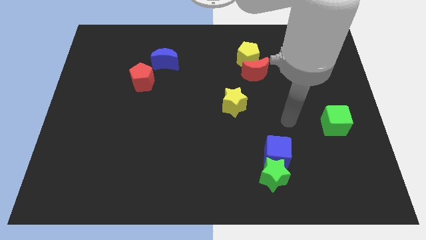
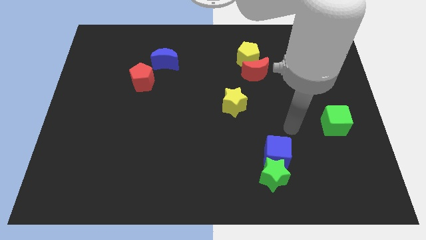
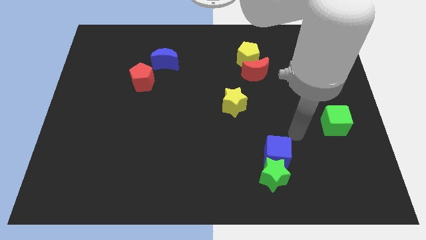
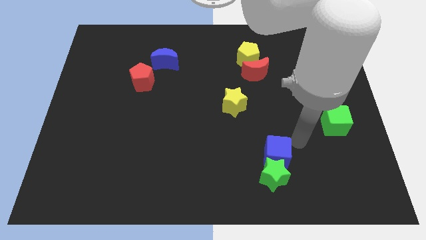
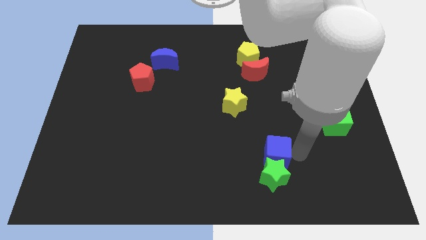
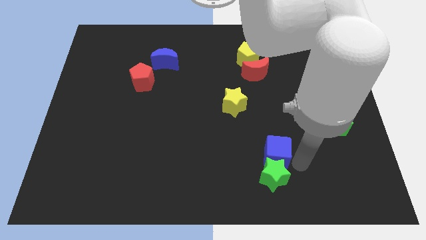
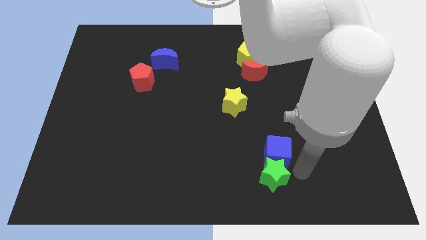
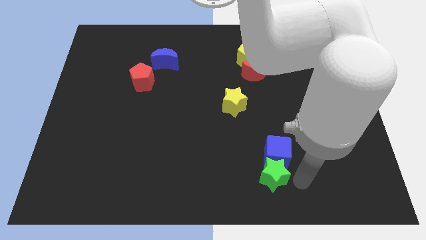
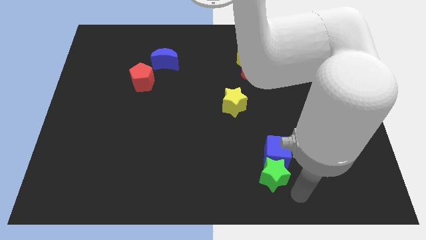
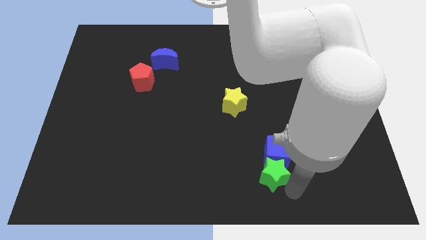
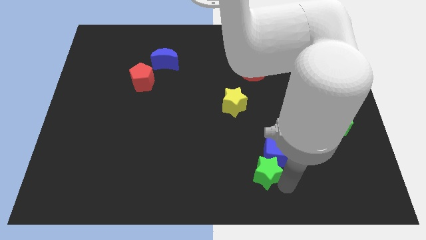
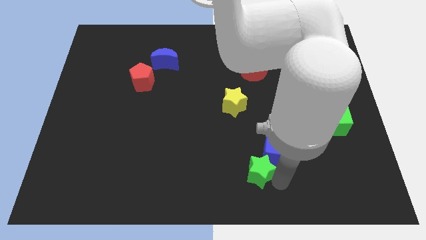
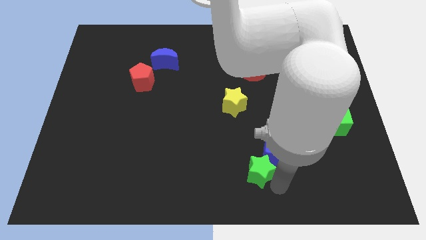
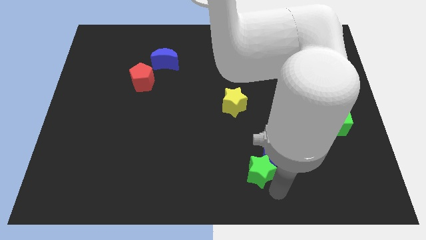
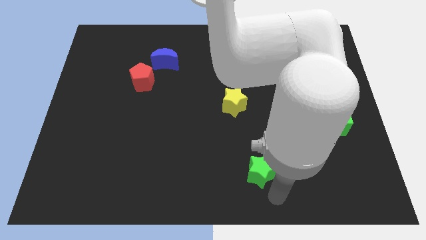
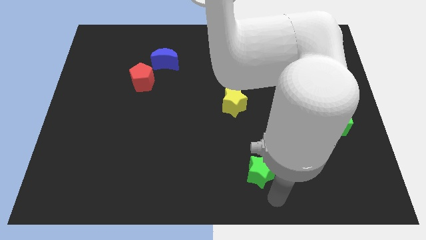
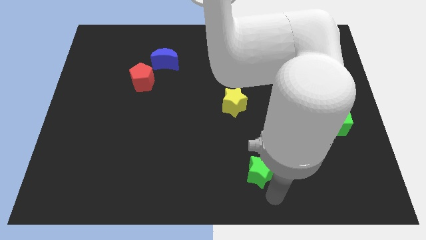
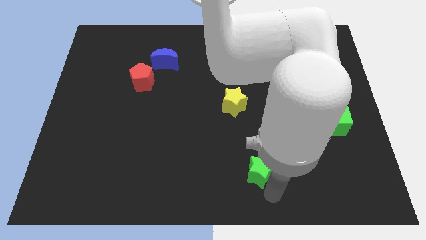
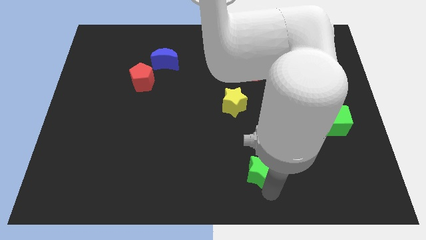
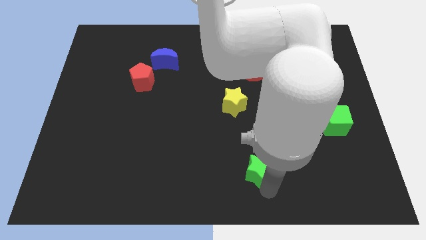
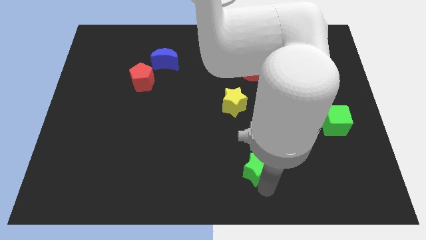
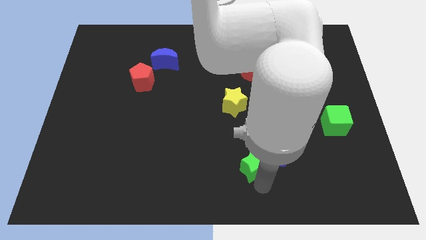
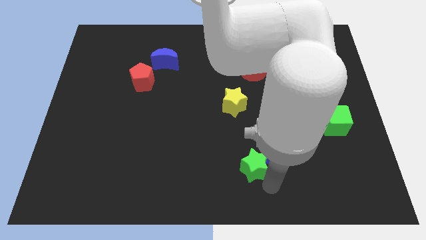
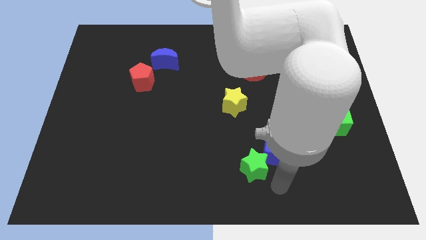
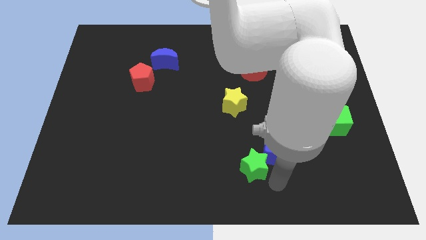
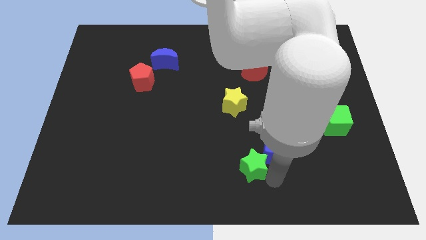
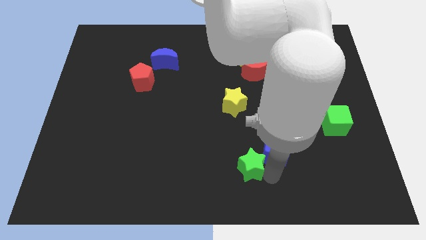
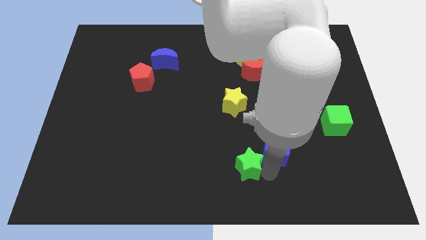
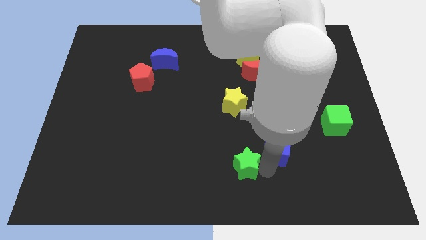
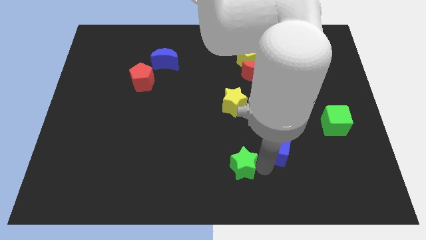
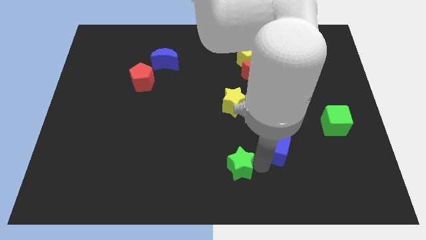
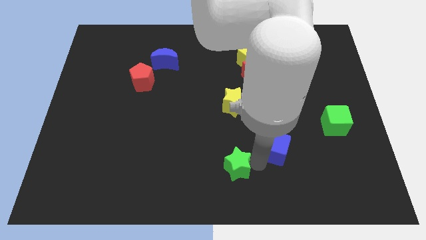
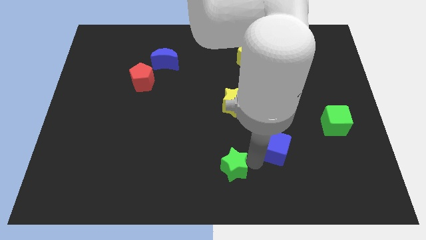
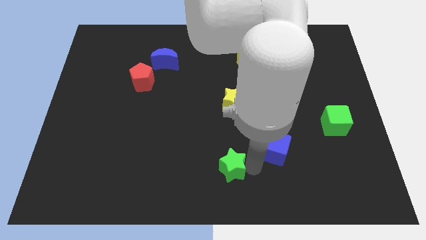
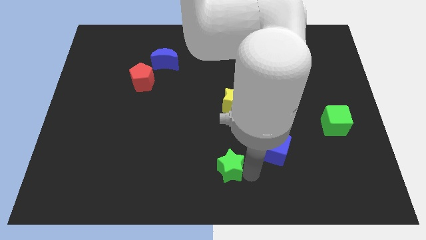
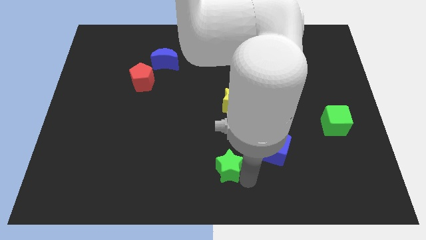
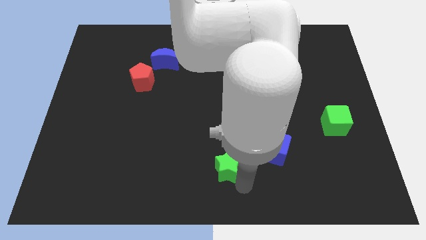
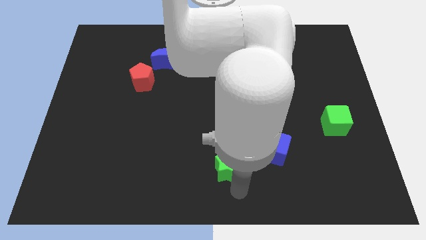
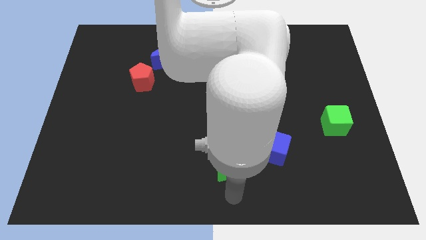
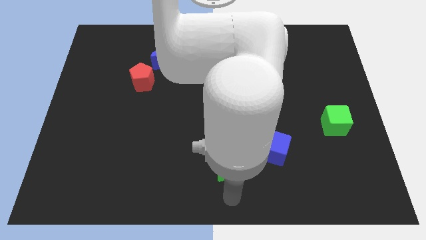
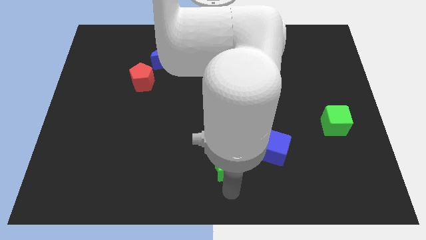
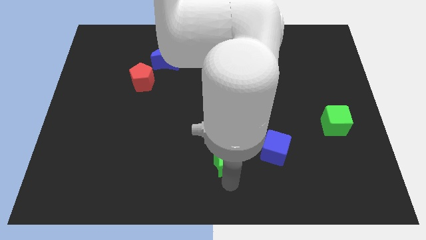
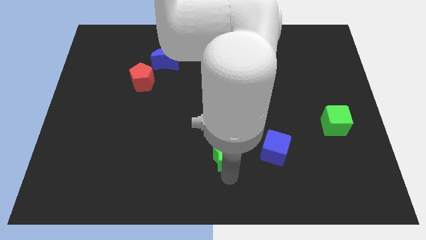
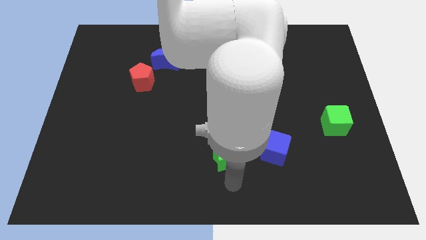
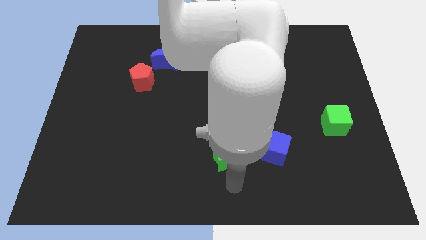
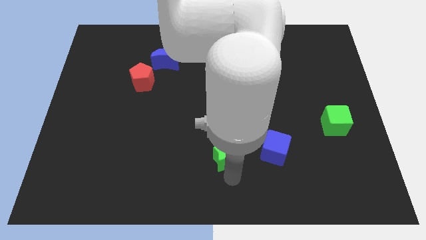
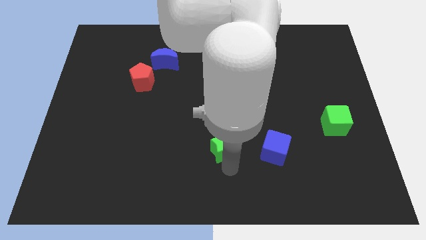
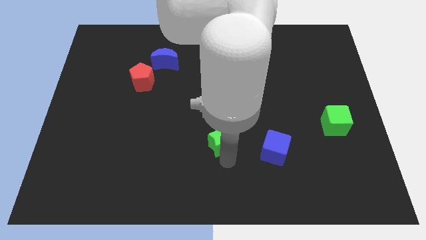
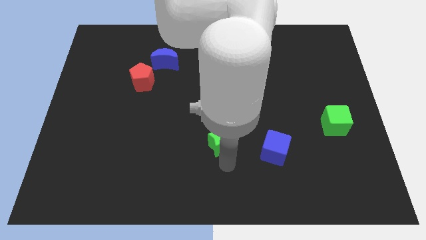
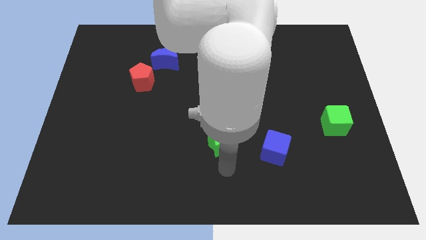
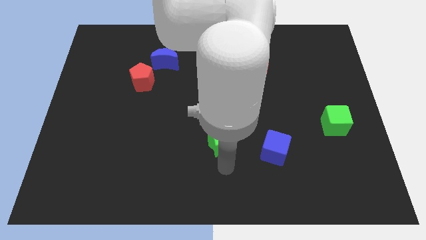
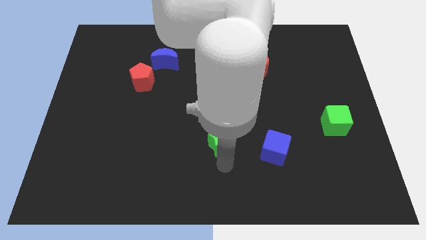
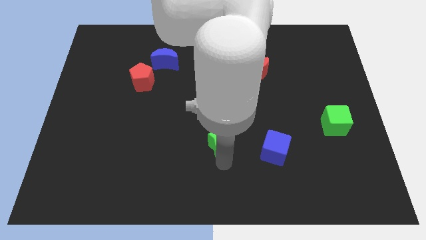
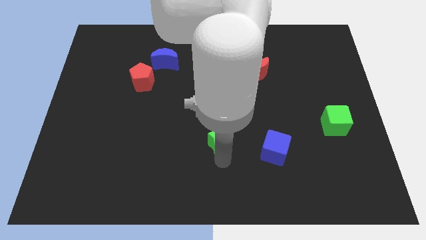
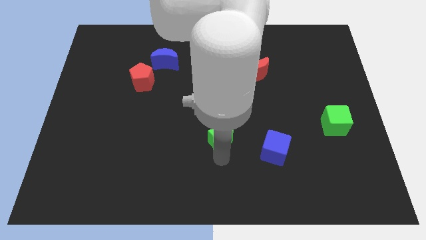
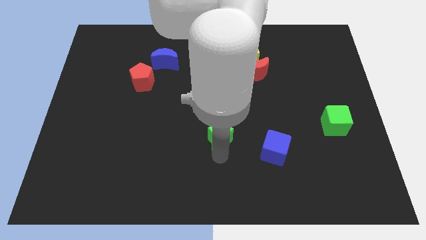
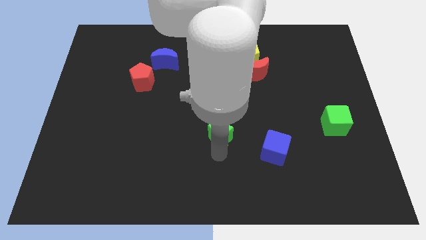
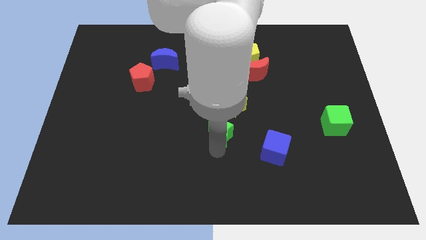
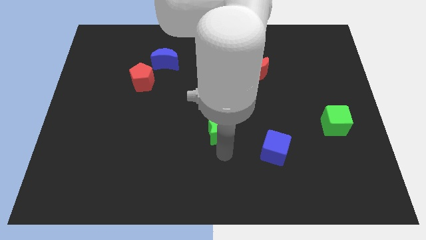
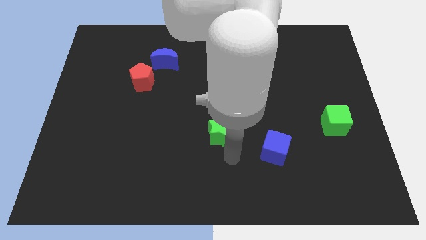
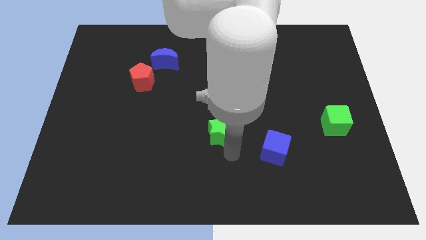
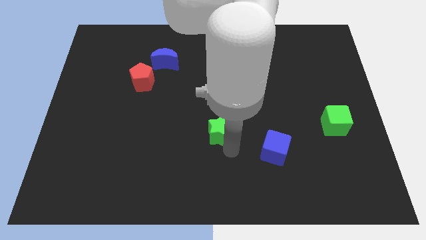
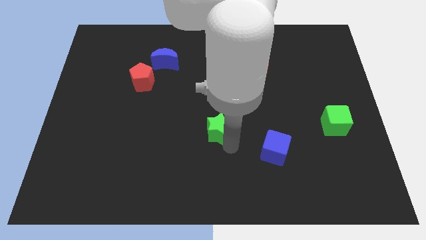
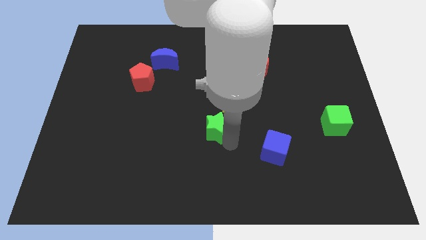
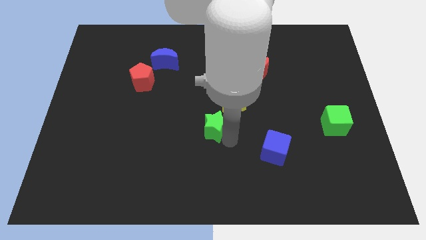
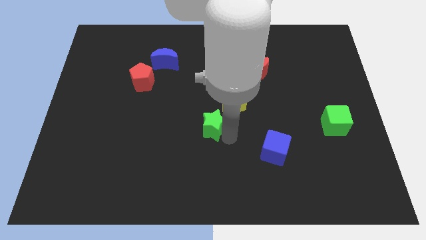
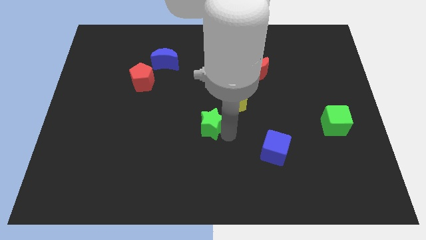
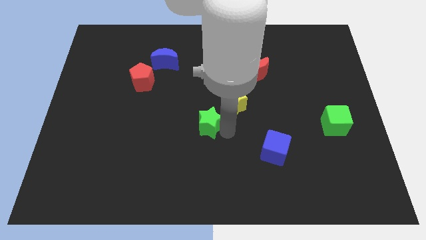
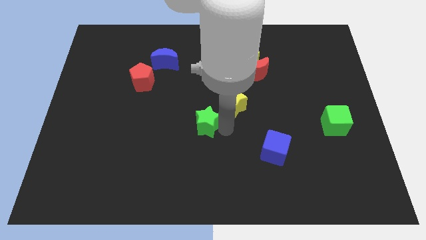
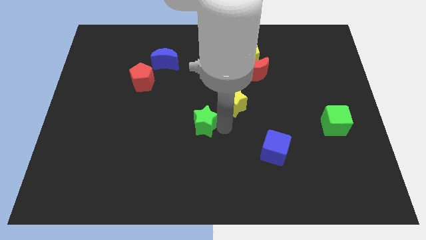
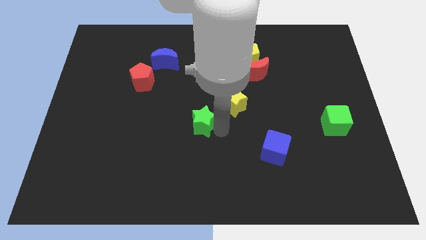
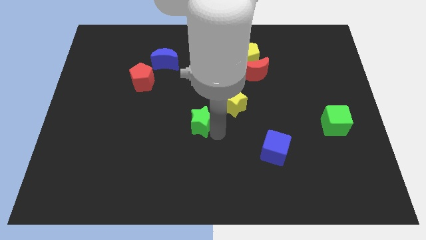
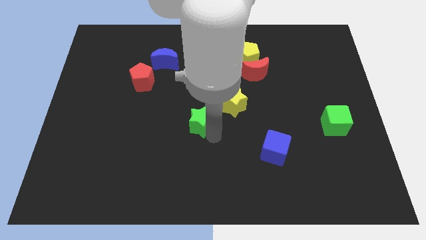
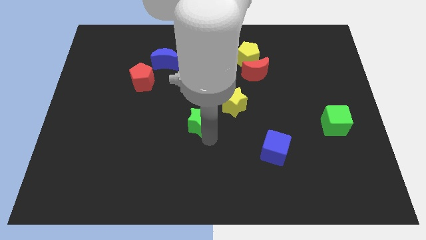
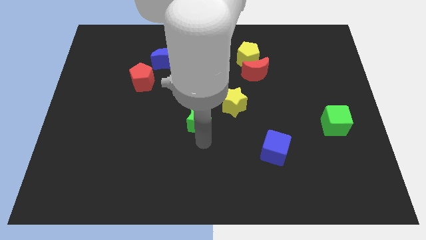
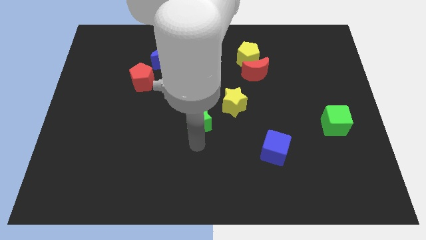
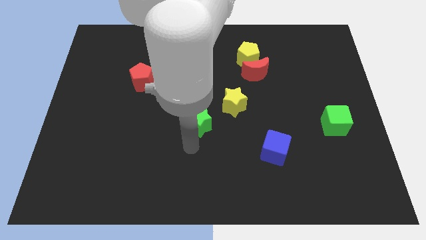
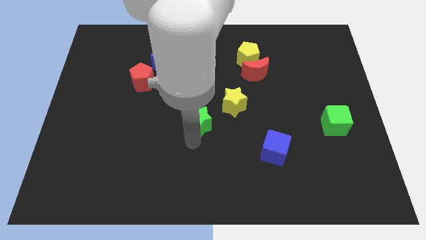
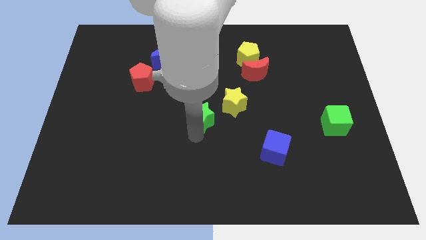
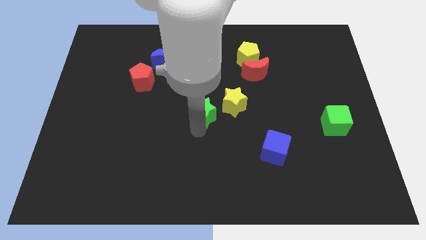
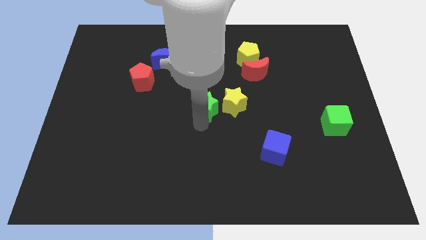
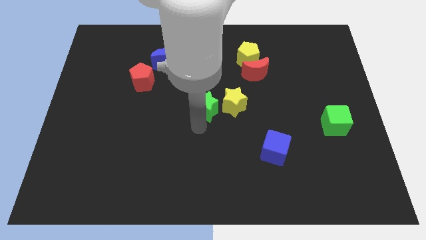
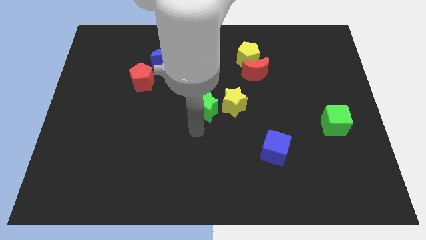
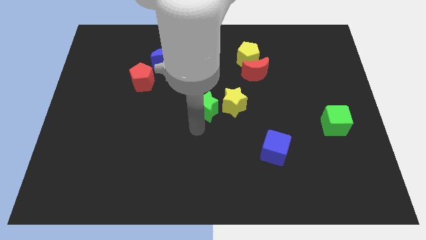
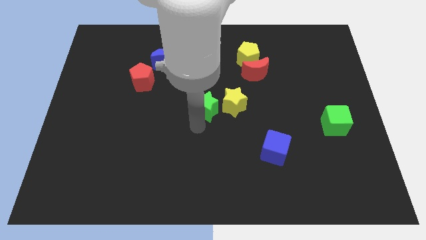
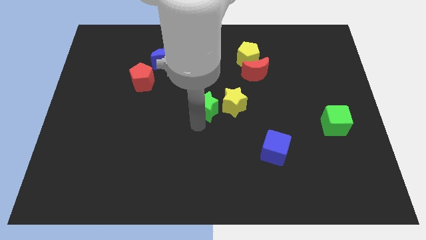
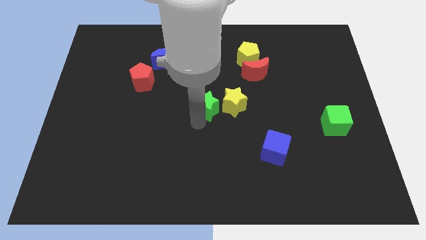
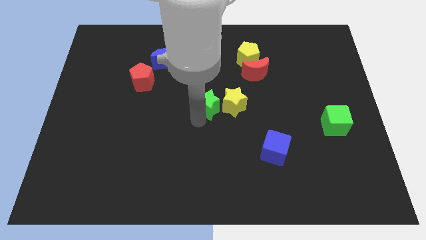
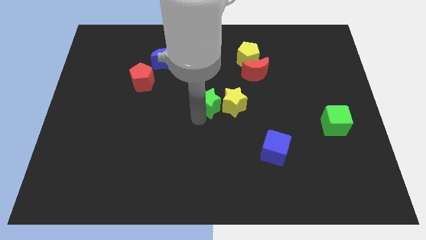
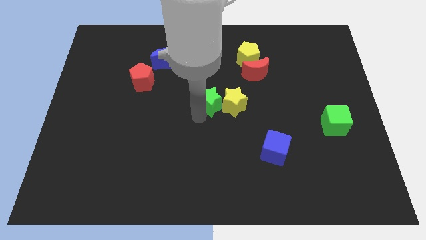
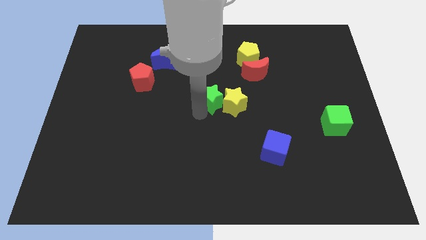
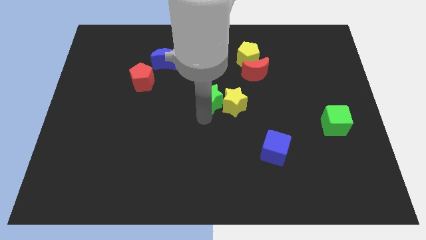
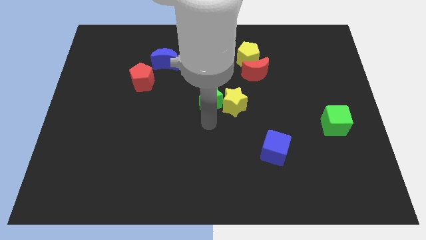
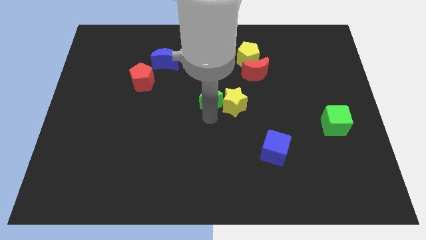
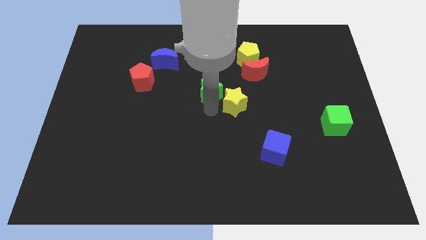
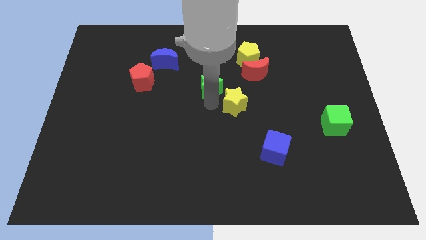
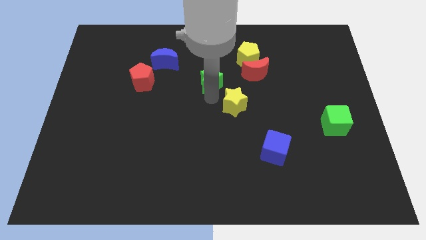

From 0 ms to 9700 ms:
put the green star to the left side of the red moon
